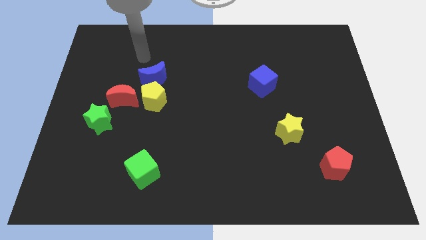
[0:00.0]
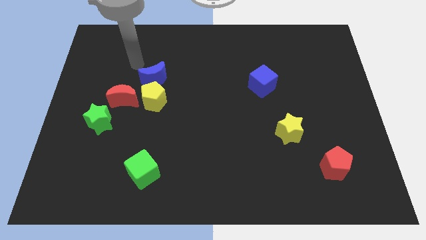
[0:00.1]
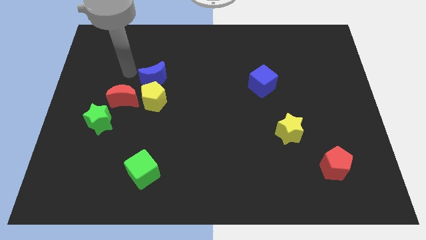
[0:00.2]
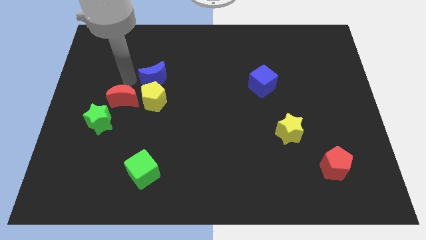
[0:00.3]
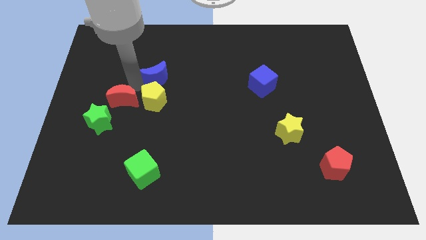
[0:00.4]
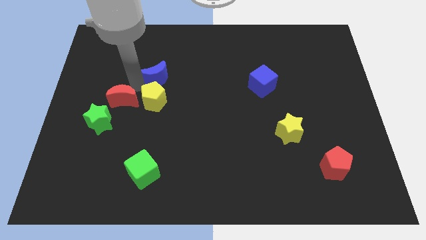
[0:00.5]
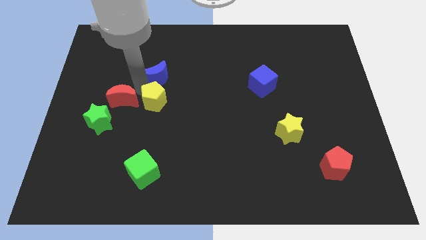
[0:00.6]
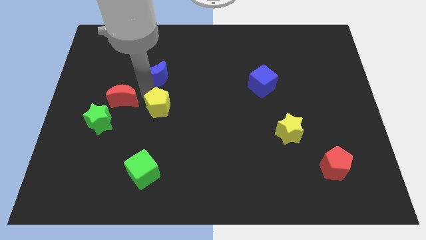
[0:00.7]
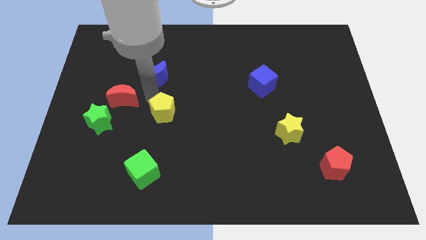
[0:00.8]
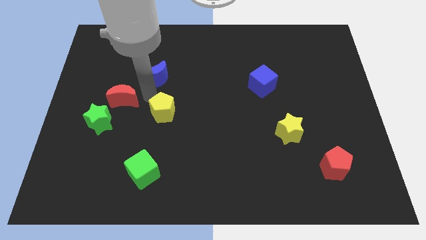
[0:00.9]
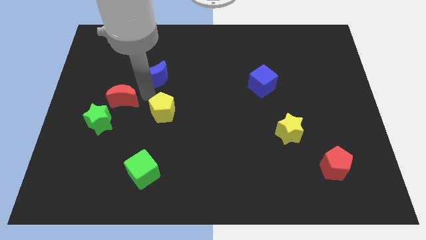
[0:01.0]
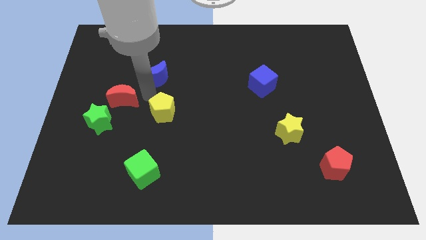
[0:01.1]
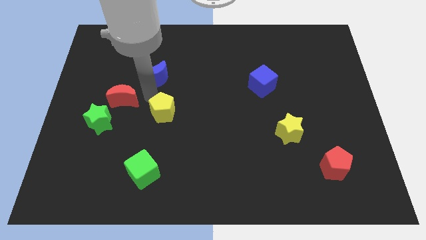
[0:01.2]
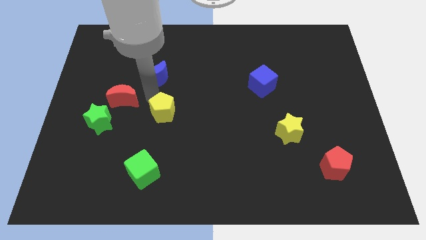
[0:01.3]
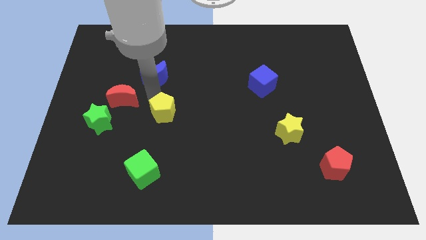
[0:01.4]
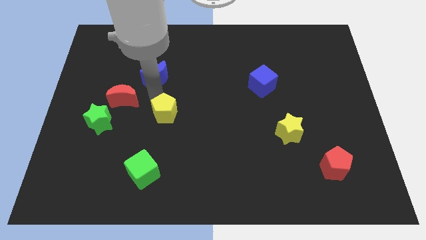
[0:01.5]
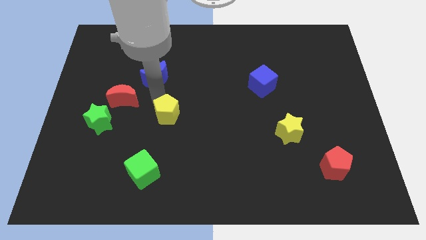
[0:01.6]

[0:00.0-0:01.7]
separate the yellow pentagon from the blue moon and red moon

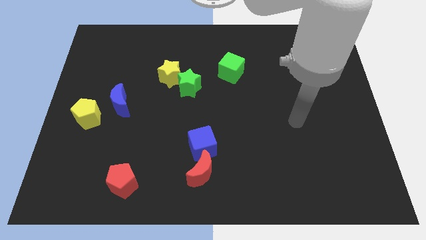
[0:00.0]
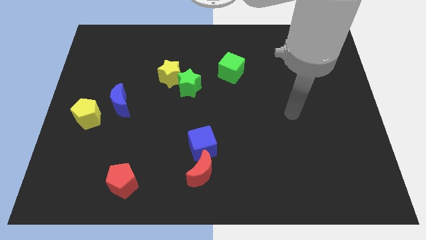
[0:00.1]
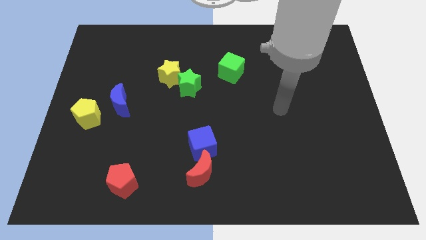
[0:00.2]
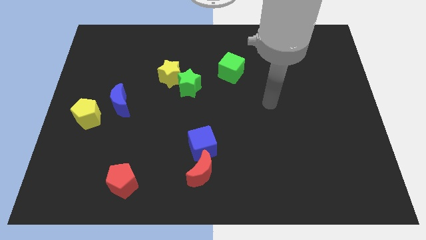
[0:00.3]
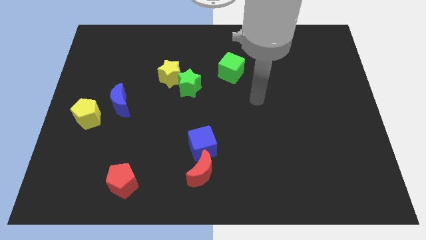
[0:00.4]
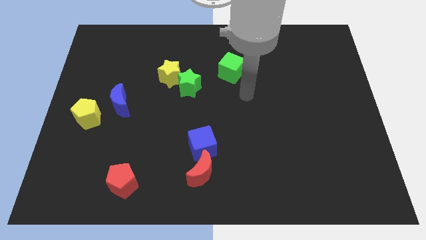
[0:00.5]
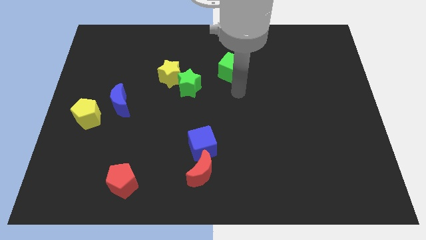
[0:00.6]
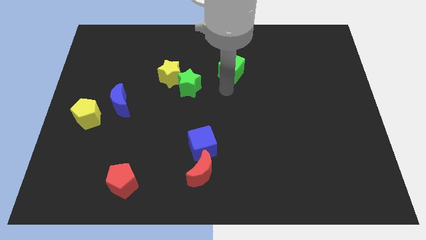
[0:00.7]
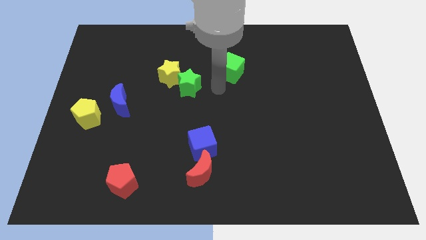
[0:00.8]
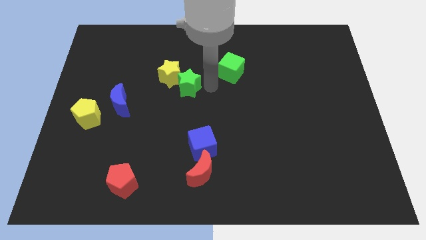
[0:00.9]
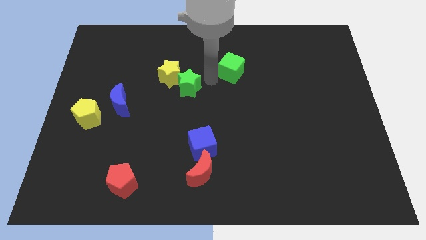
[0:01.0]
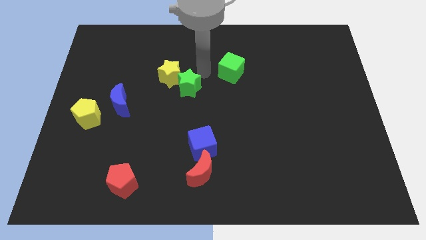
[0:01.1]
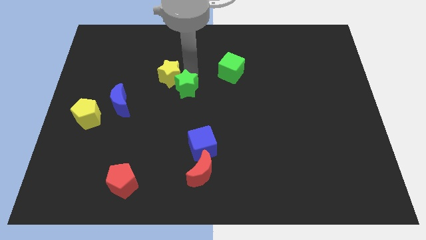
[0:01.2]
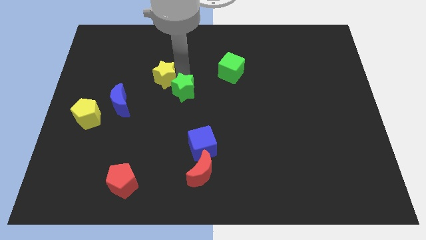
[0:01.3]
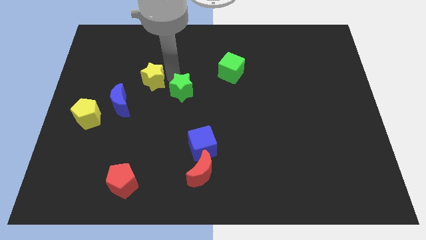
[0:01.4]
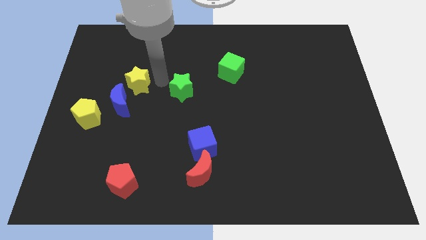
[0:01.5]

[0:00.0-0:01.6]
move the green star away from the yellow star

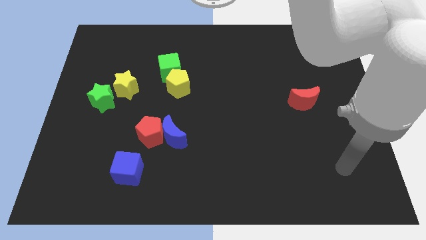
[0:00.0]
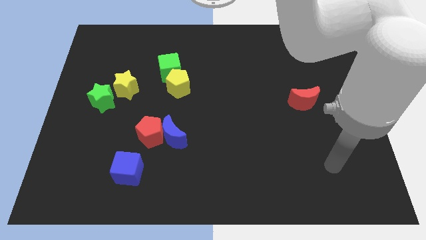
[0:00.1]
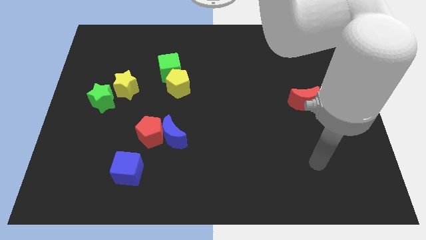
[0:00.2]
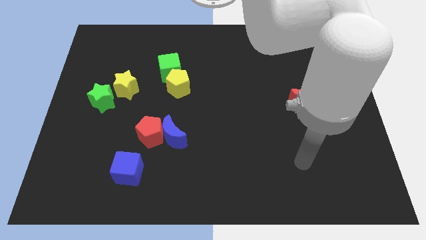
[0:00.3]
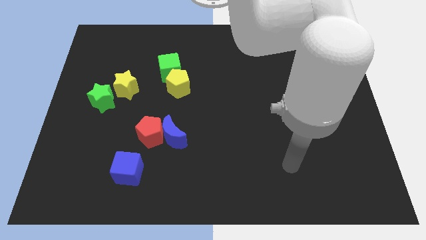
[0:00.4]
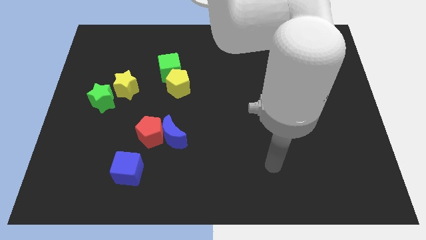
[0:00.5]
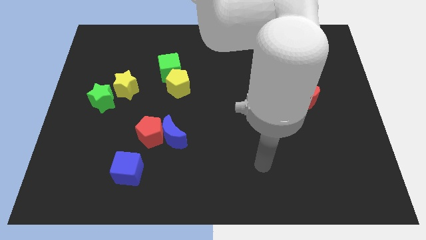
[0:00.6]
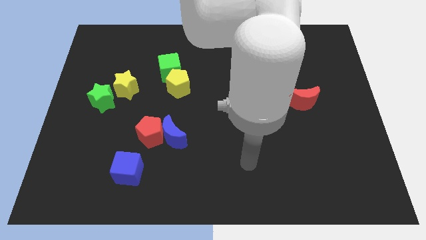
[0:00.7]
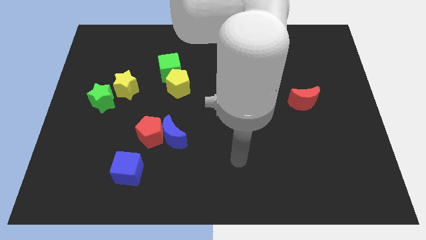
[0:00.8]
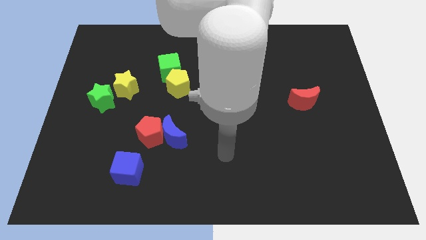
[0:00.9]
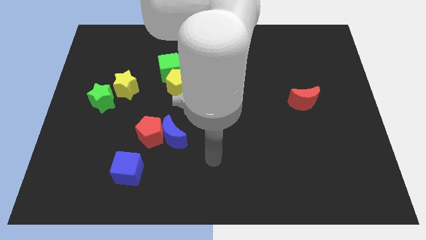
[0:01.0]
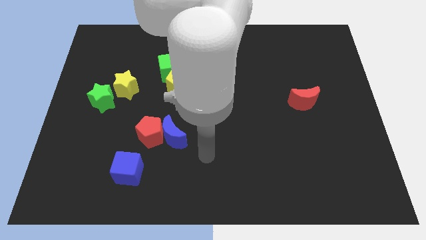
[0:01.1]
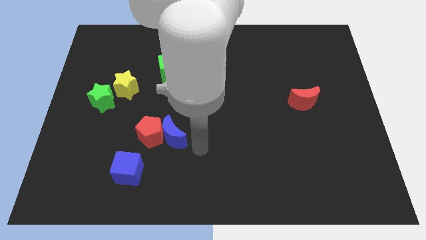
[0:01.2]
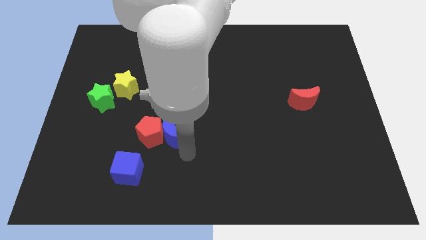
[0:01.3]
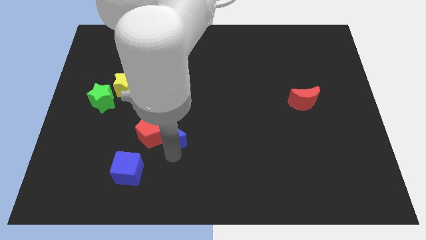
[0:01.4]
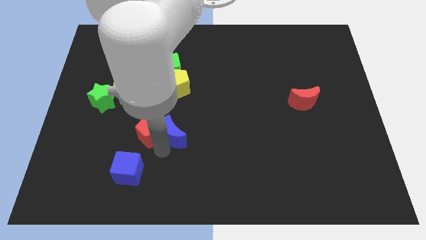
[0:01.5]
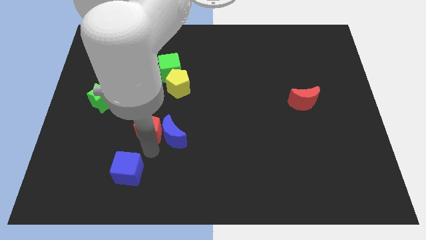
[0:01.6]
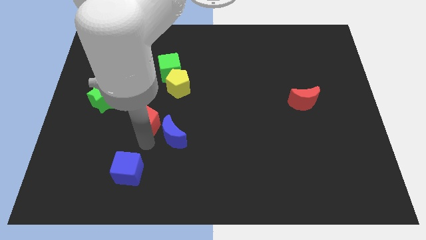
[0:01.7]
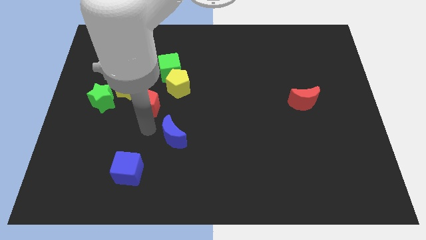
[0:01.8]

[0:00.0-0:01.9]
separate the blue moon from the red pentagon

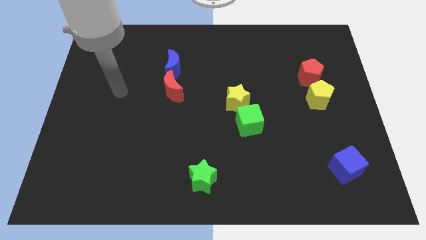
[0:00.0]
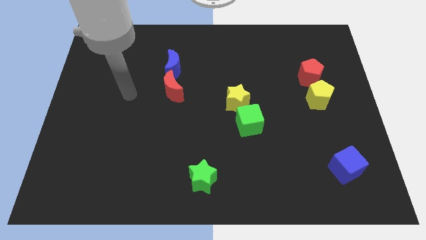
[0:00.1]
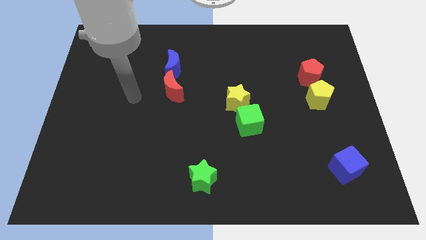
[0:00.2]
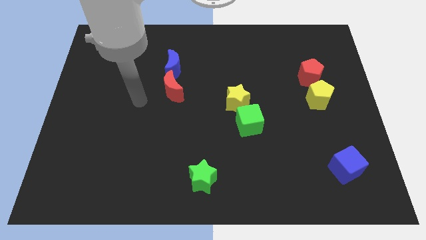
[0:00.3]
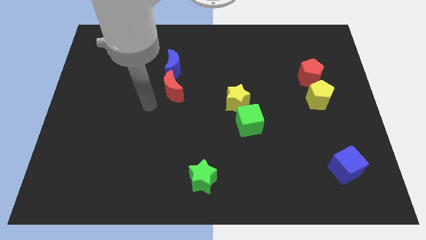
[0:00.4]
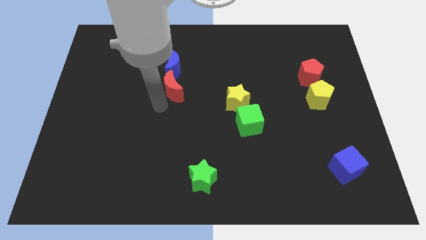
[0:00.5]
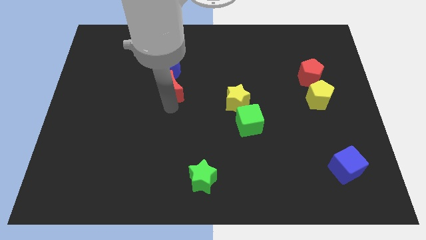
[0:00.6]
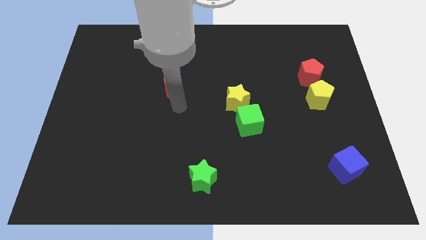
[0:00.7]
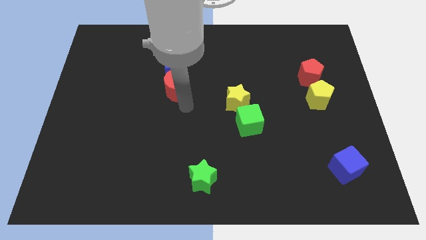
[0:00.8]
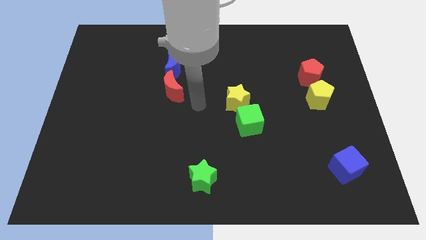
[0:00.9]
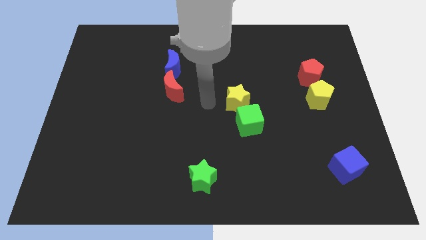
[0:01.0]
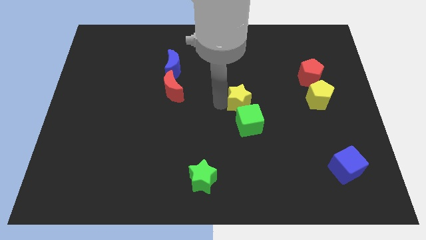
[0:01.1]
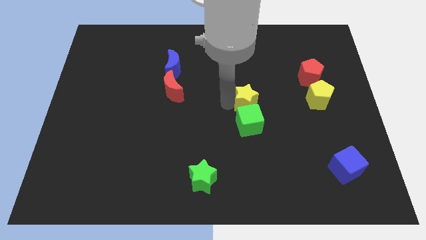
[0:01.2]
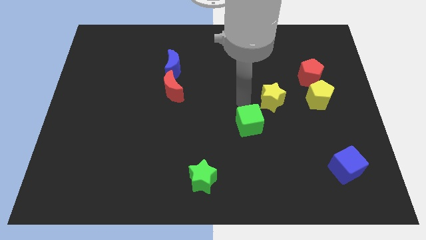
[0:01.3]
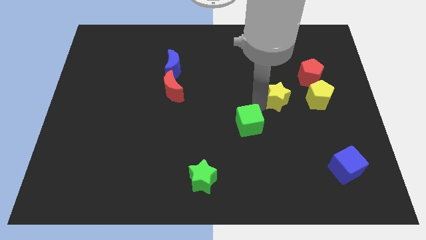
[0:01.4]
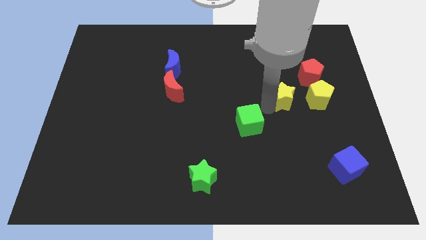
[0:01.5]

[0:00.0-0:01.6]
separate the green cube from the yellow star

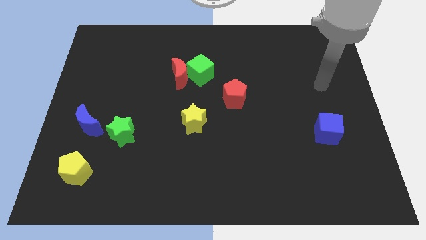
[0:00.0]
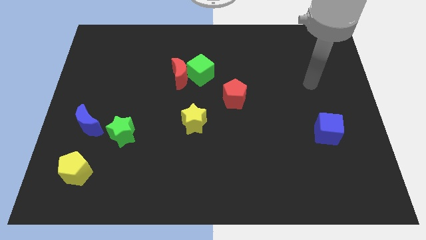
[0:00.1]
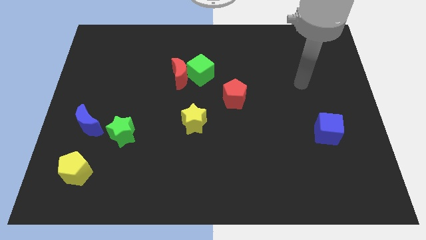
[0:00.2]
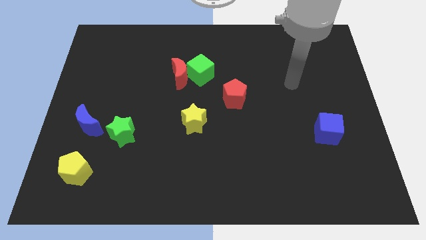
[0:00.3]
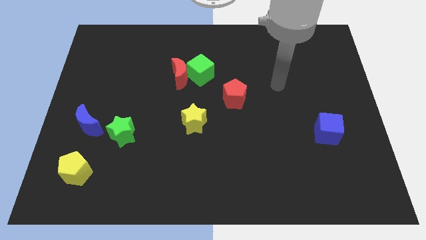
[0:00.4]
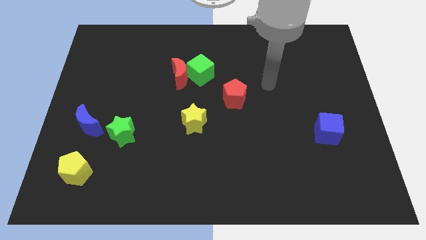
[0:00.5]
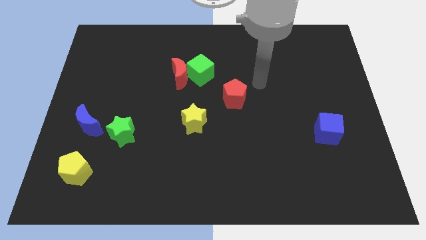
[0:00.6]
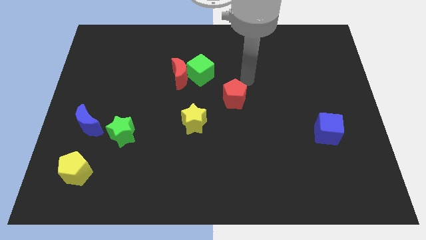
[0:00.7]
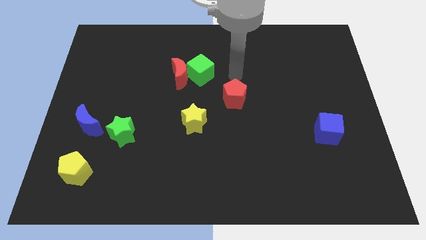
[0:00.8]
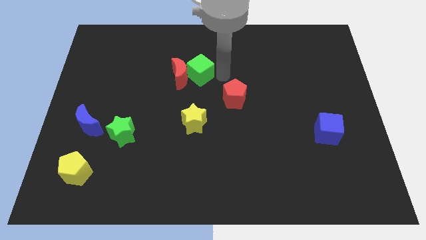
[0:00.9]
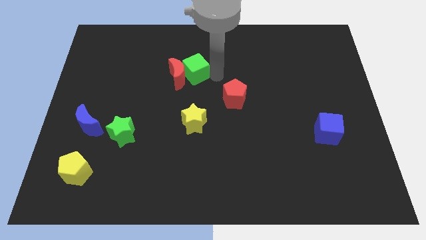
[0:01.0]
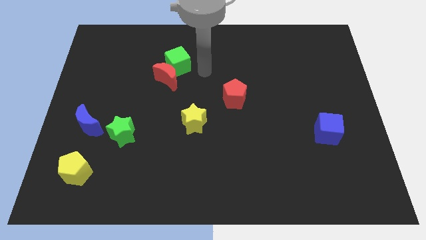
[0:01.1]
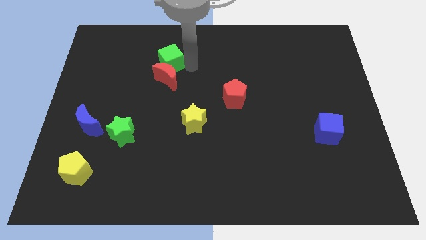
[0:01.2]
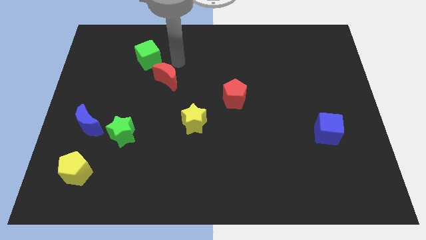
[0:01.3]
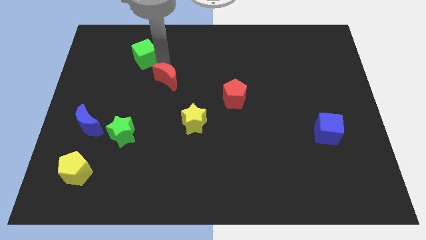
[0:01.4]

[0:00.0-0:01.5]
move the red moon away from the green cube

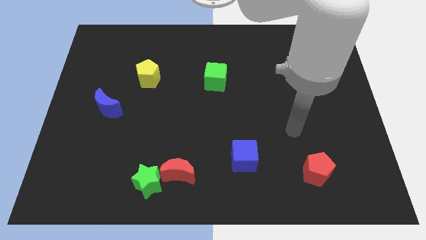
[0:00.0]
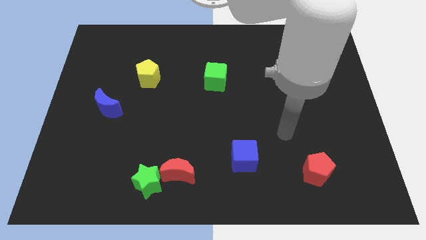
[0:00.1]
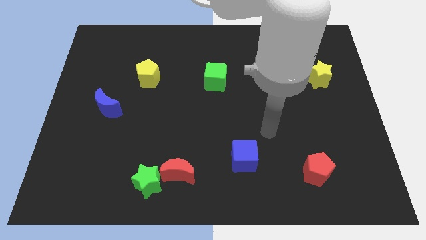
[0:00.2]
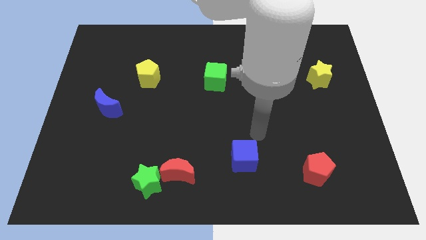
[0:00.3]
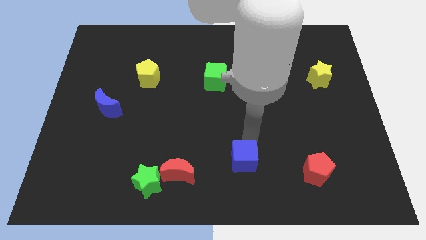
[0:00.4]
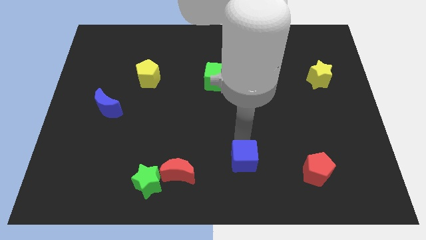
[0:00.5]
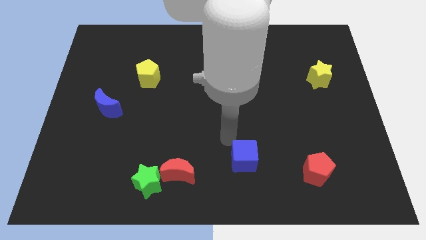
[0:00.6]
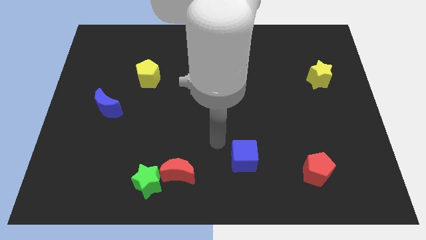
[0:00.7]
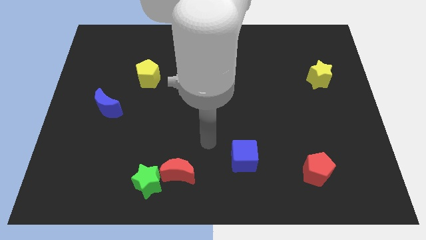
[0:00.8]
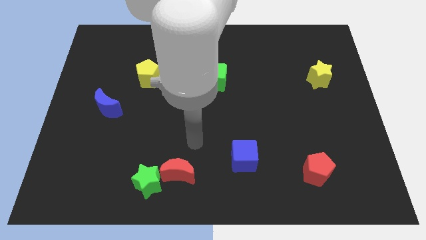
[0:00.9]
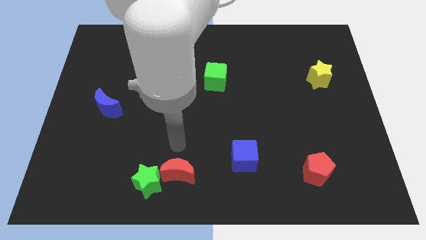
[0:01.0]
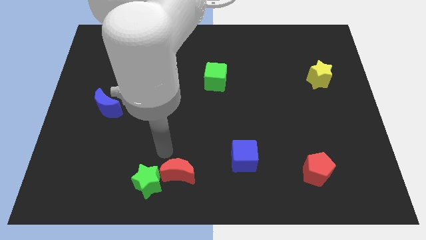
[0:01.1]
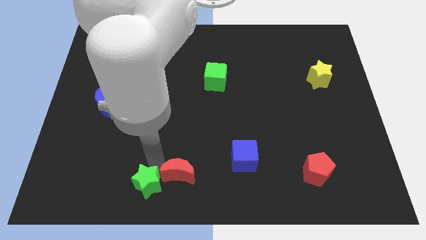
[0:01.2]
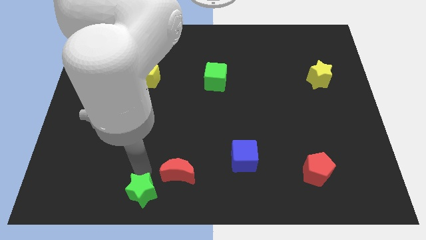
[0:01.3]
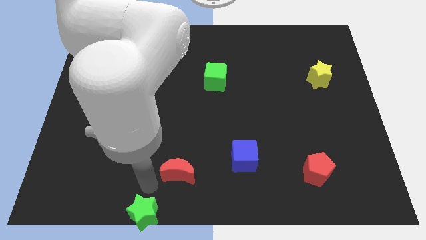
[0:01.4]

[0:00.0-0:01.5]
separate the red moon from the green star
